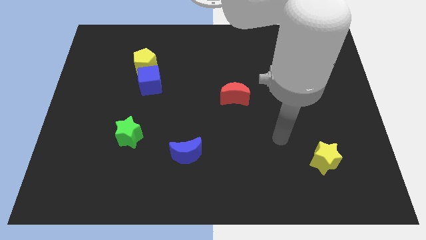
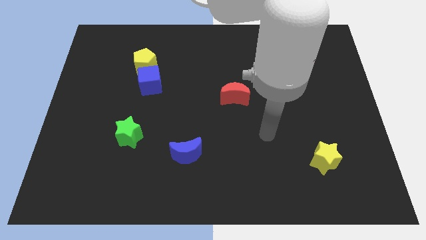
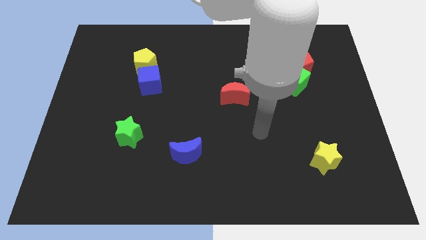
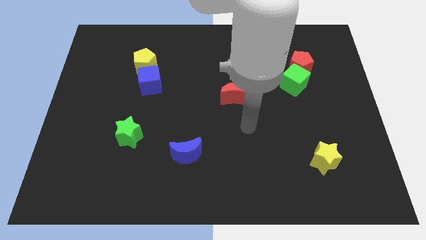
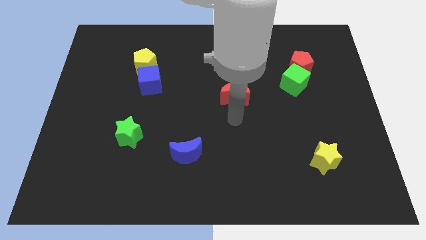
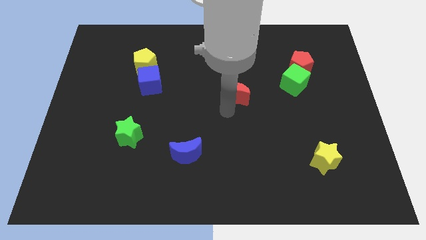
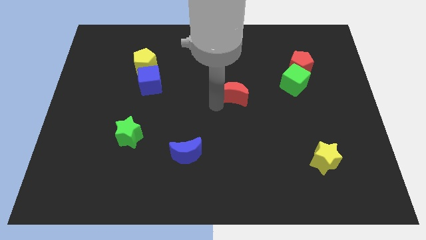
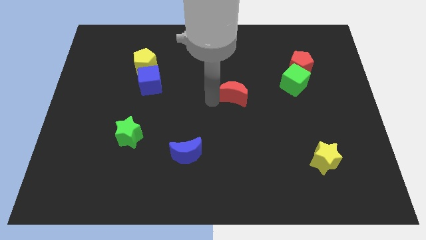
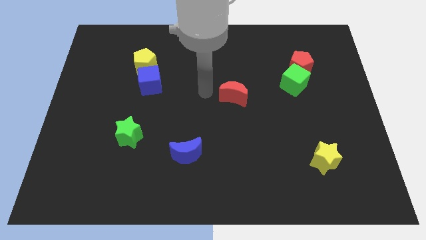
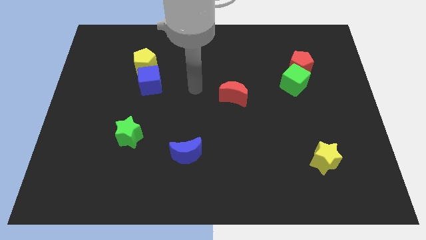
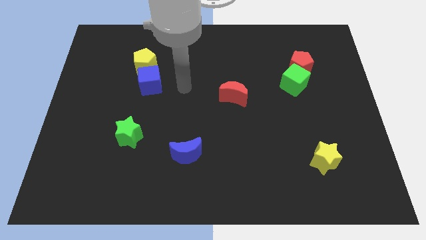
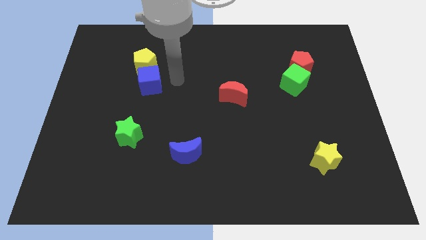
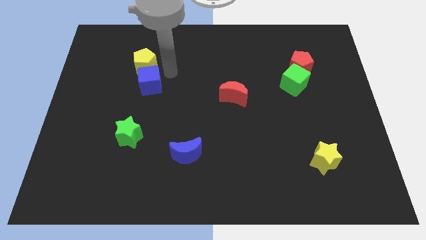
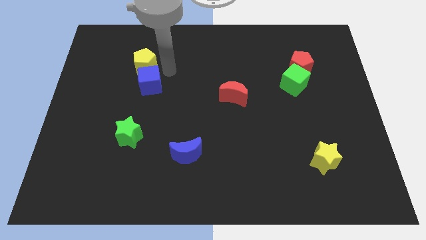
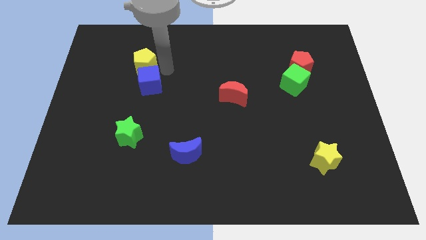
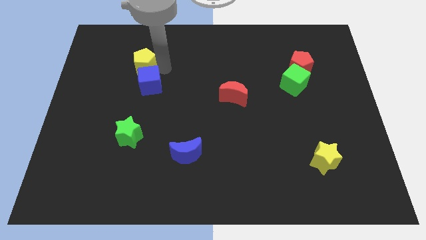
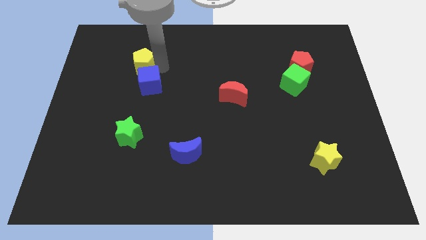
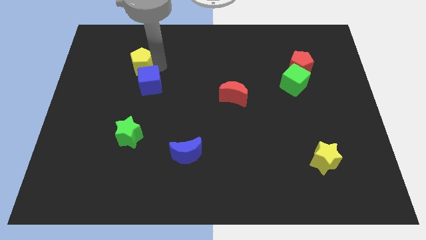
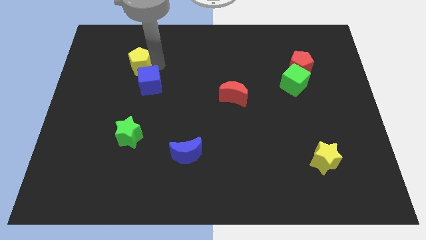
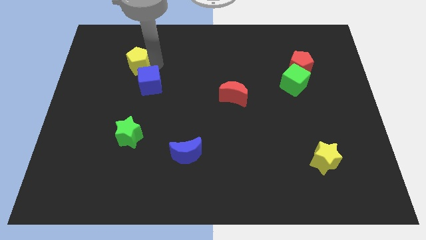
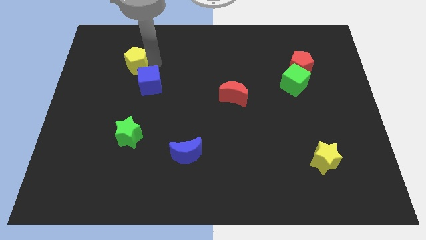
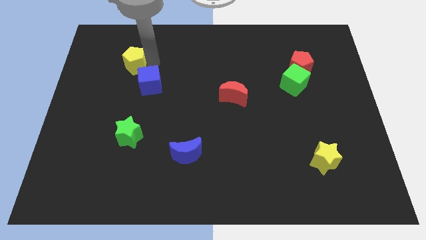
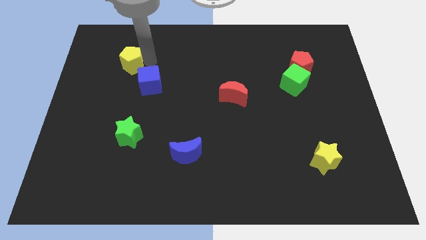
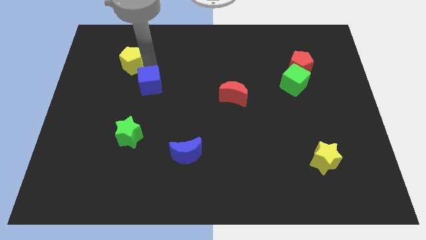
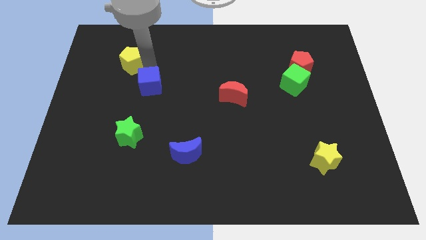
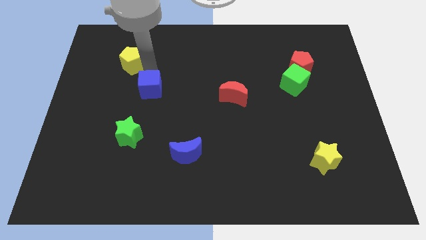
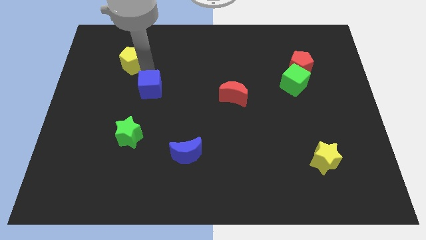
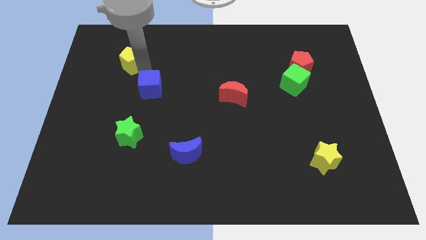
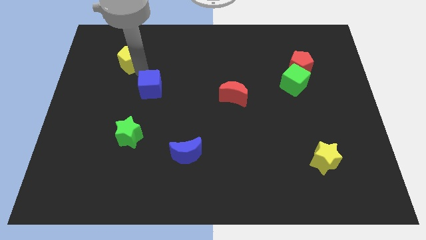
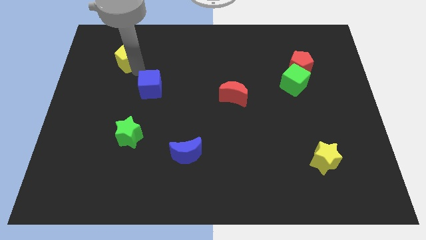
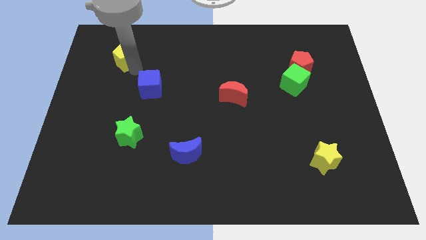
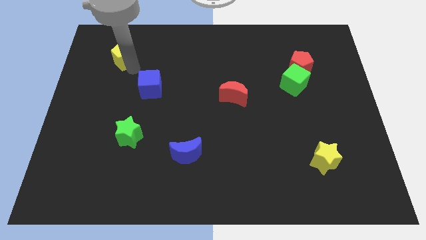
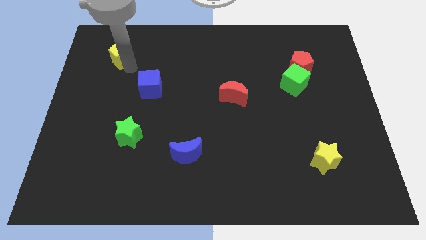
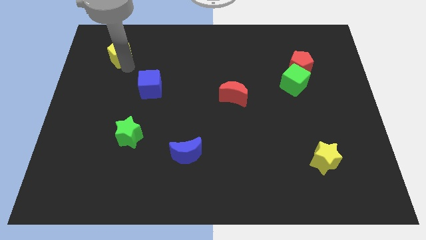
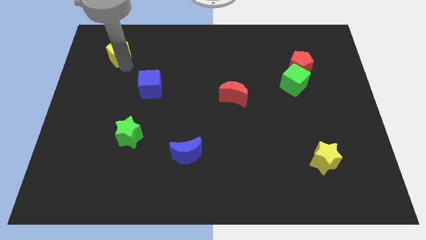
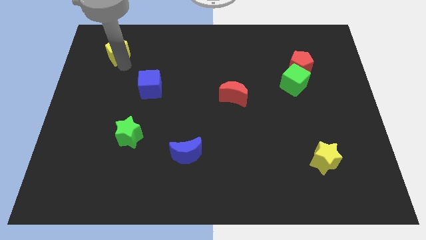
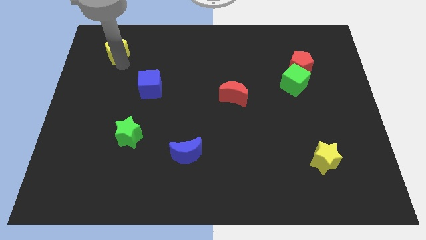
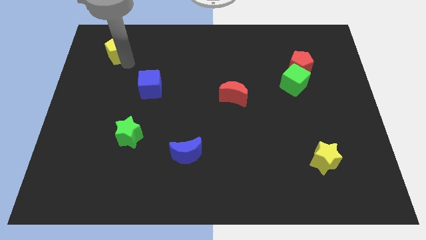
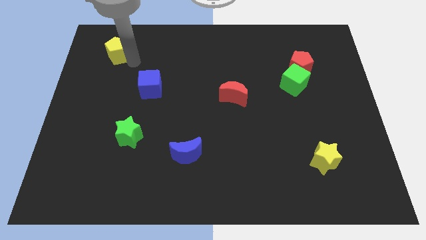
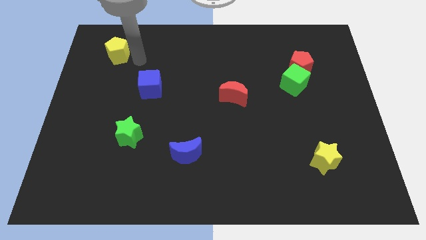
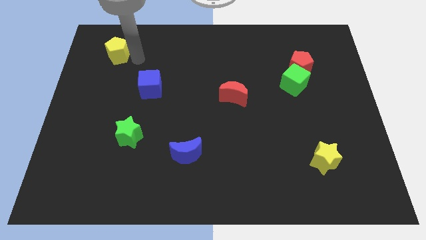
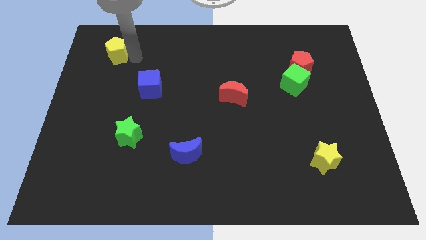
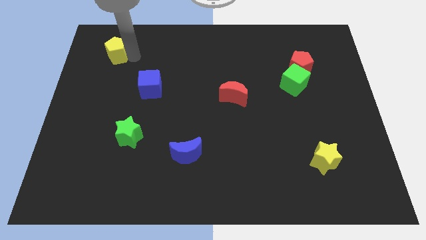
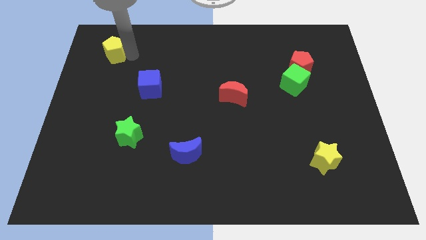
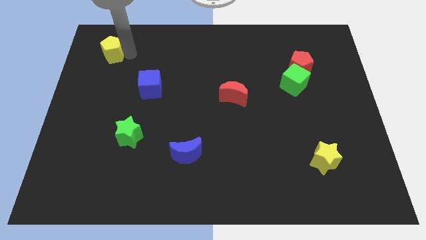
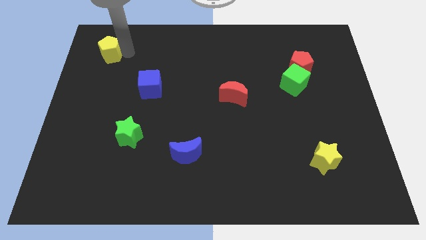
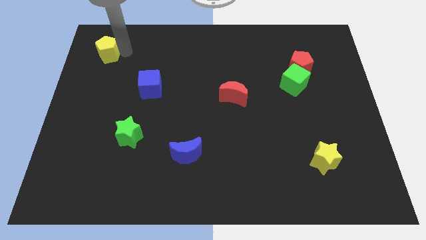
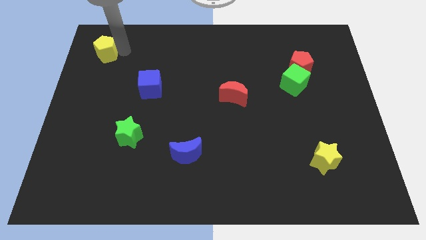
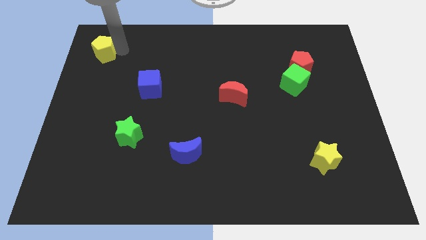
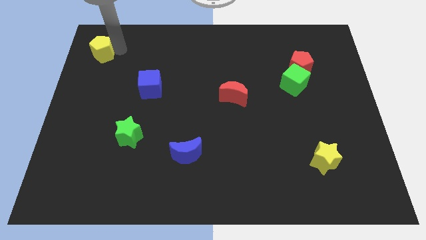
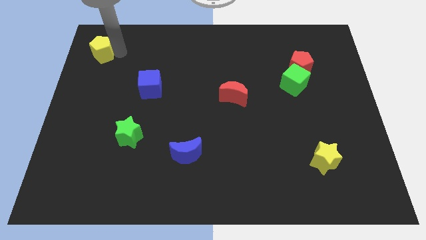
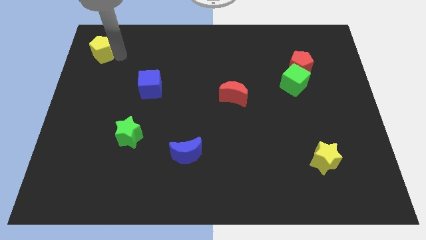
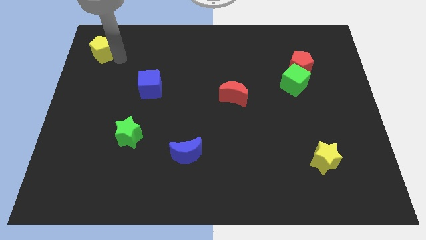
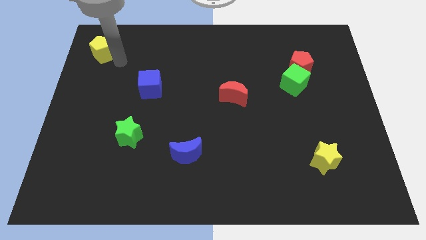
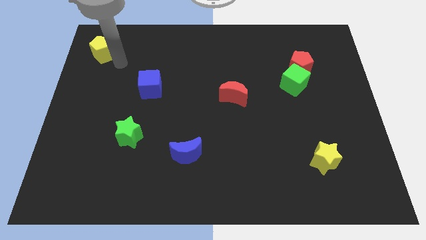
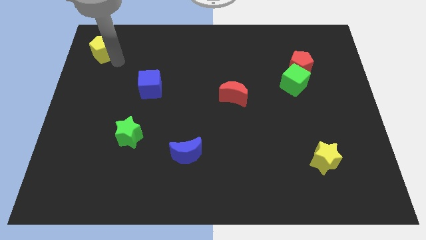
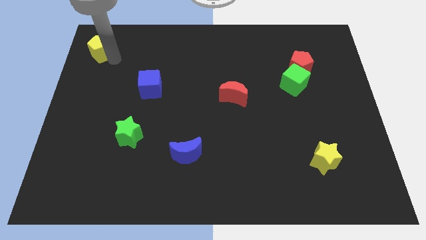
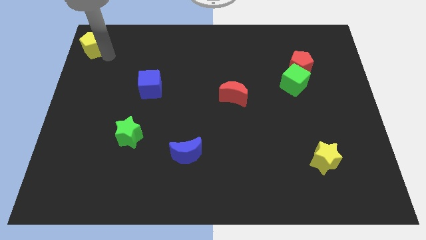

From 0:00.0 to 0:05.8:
put the yellow pentagon to the upper left corner
